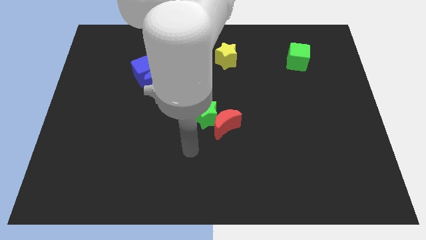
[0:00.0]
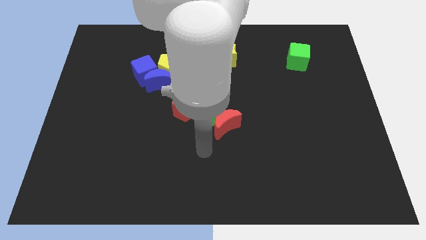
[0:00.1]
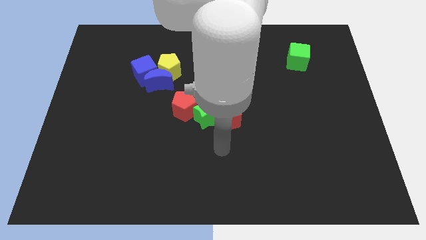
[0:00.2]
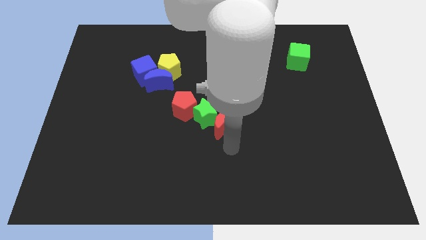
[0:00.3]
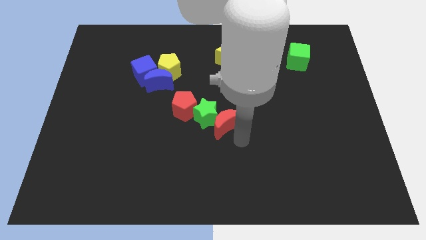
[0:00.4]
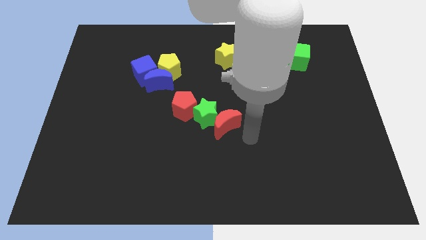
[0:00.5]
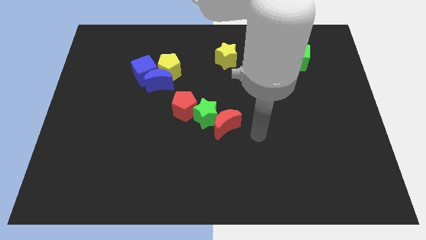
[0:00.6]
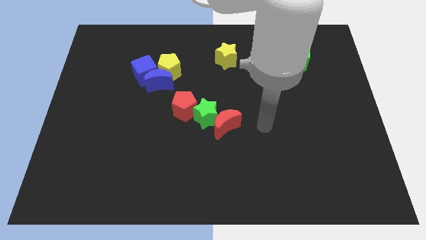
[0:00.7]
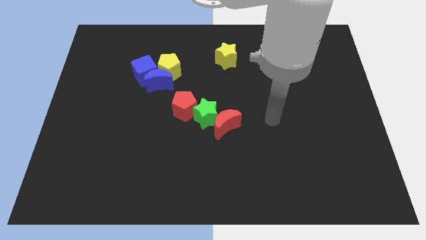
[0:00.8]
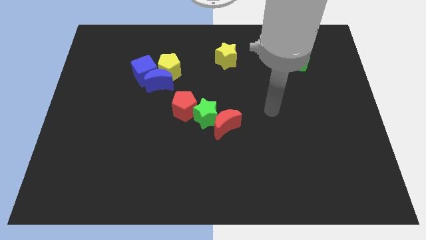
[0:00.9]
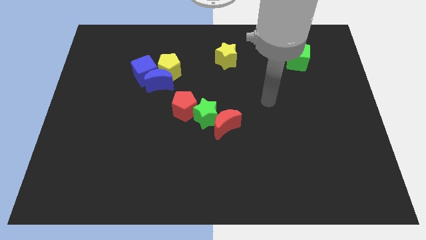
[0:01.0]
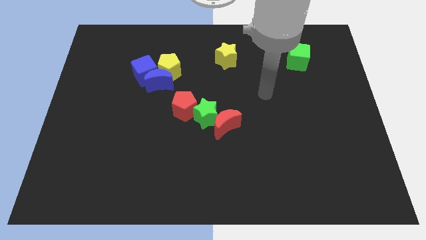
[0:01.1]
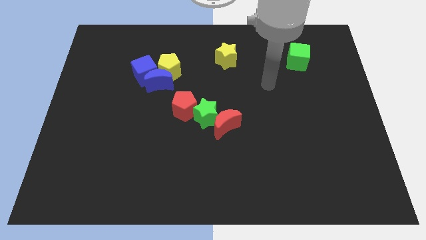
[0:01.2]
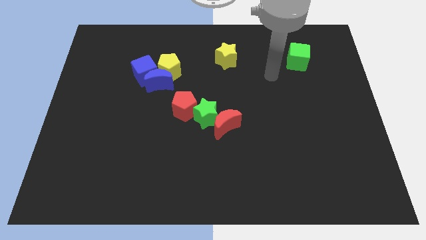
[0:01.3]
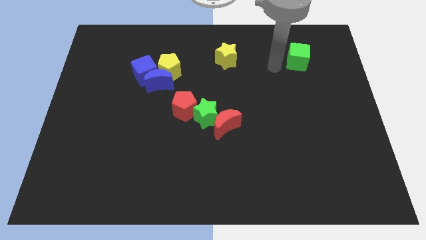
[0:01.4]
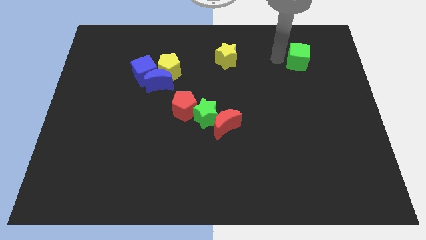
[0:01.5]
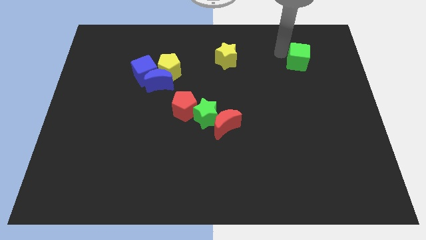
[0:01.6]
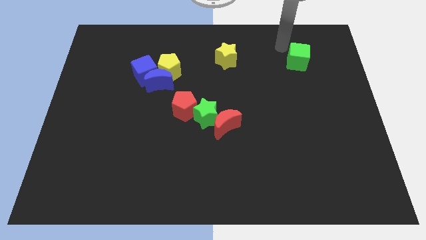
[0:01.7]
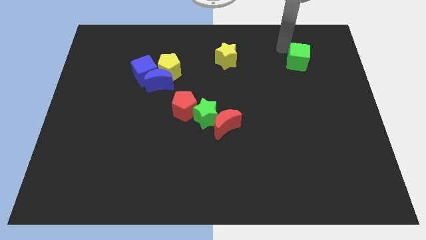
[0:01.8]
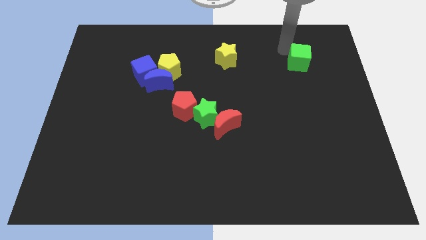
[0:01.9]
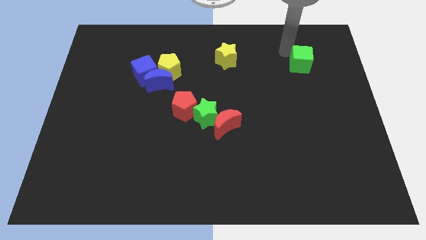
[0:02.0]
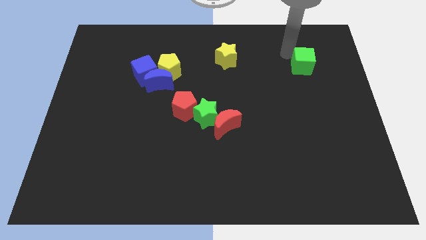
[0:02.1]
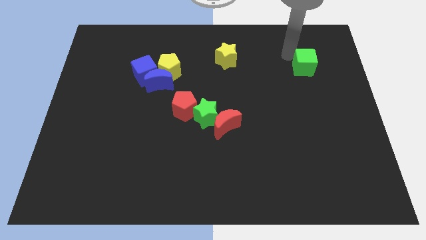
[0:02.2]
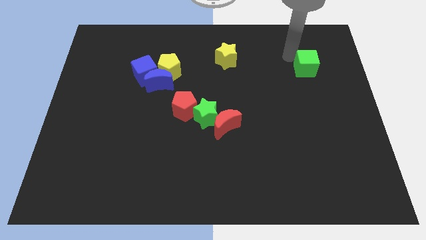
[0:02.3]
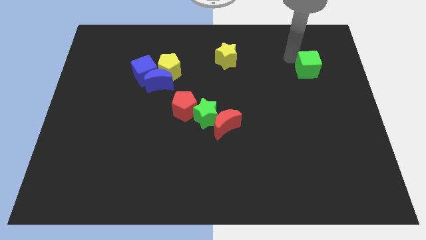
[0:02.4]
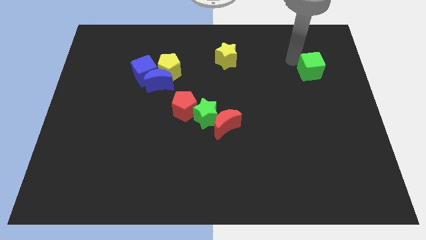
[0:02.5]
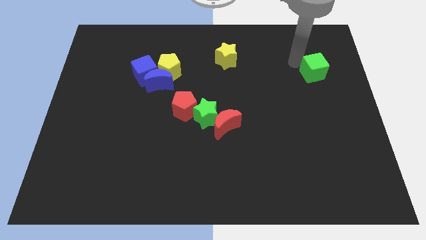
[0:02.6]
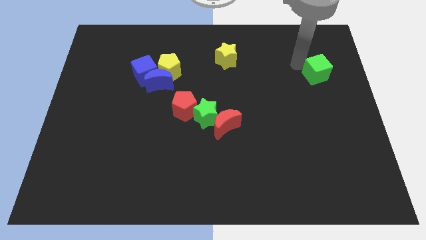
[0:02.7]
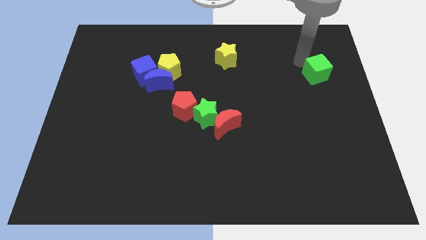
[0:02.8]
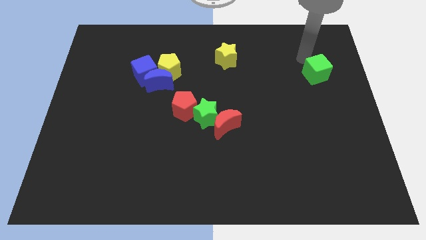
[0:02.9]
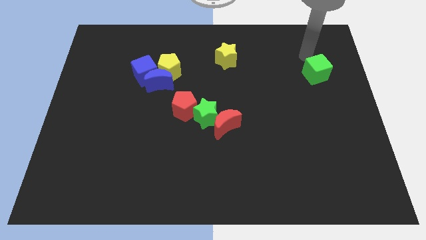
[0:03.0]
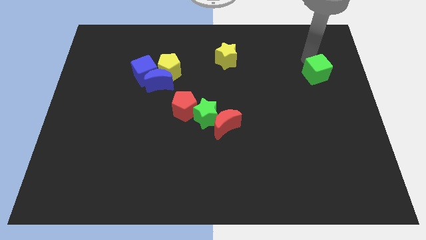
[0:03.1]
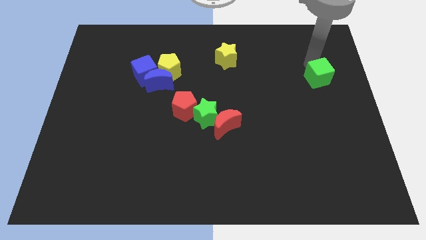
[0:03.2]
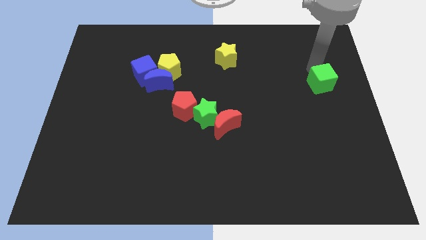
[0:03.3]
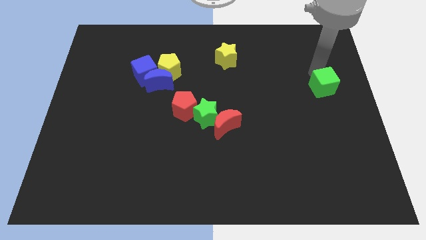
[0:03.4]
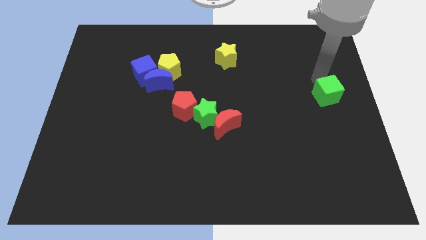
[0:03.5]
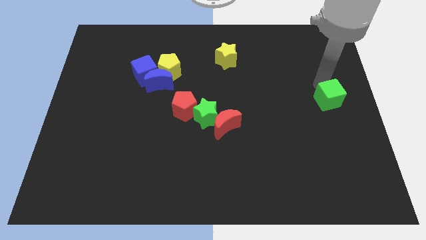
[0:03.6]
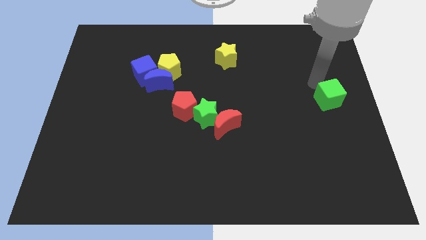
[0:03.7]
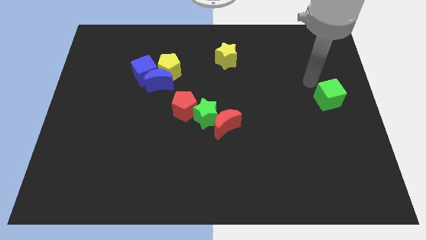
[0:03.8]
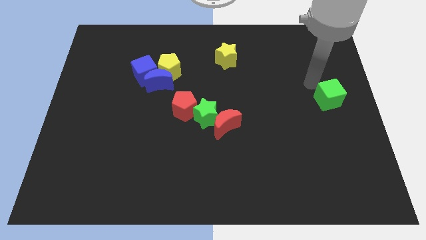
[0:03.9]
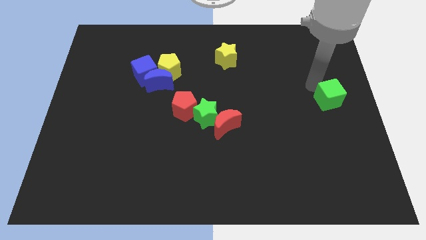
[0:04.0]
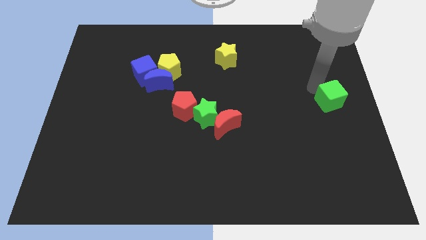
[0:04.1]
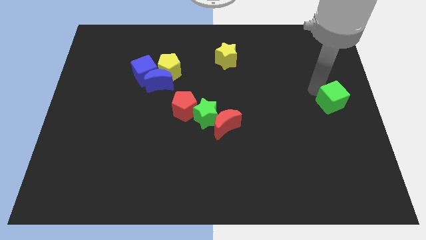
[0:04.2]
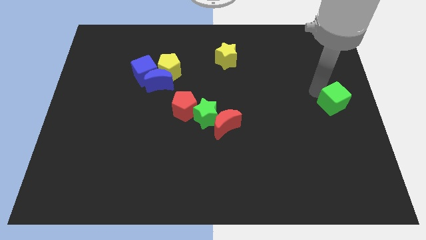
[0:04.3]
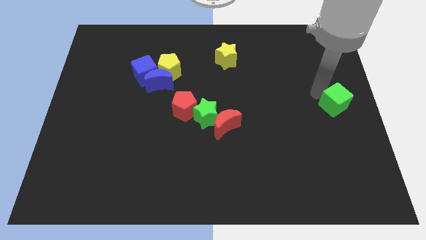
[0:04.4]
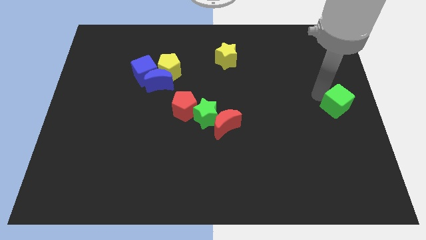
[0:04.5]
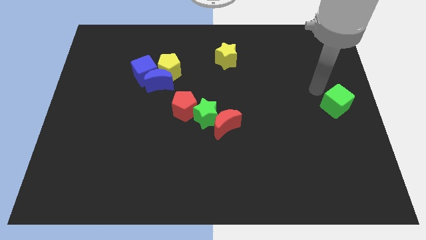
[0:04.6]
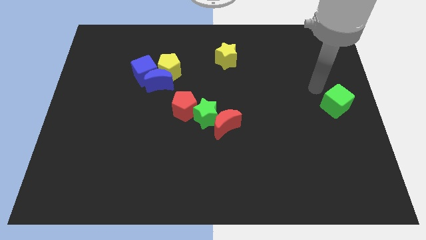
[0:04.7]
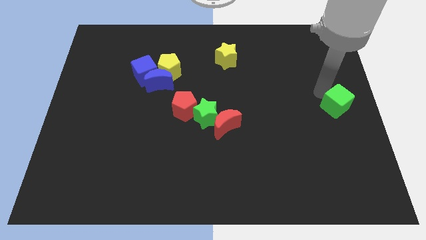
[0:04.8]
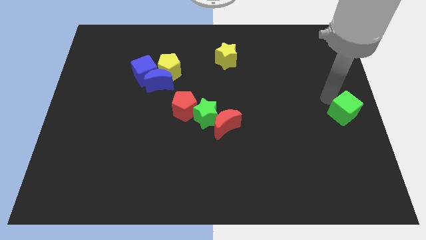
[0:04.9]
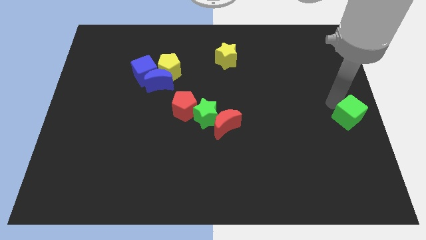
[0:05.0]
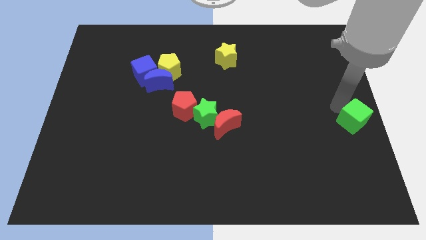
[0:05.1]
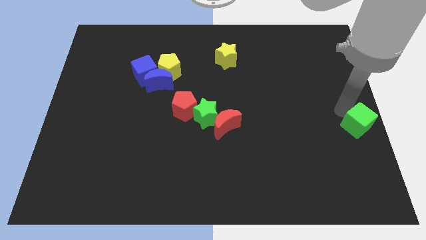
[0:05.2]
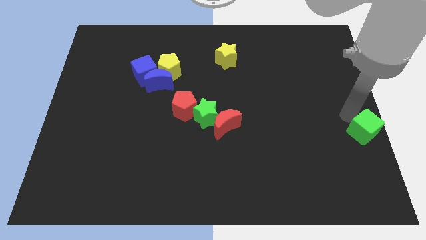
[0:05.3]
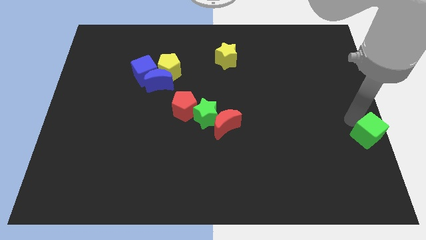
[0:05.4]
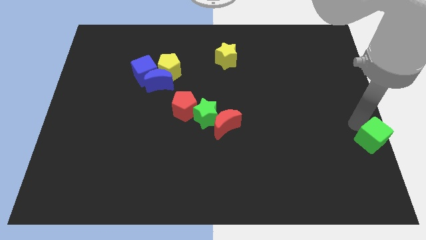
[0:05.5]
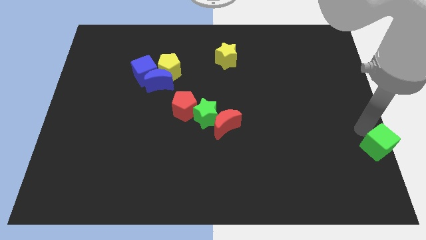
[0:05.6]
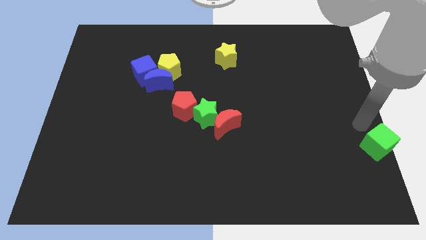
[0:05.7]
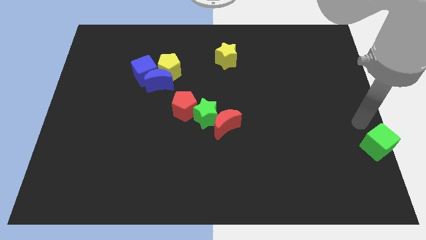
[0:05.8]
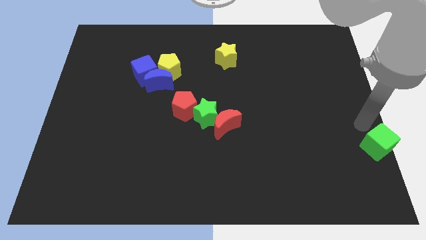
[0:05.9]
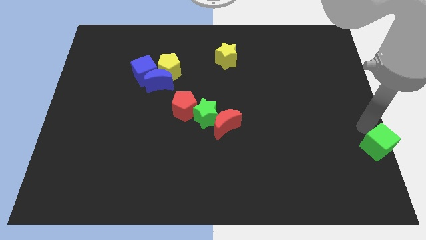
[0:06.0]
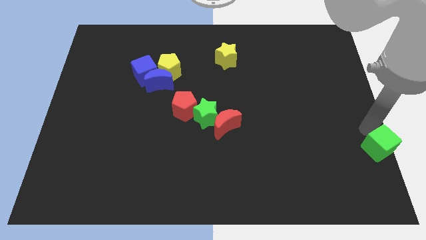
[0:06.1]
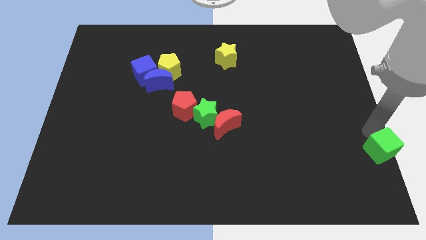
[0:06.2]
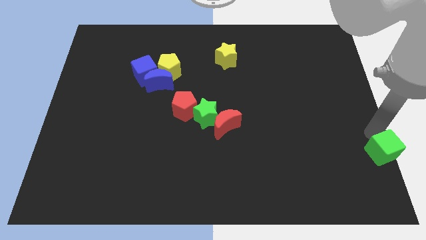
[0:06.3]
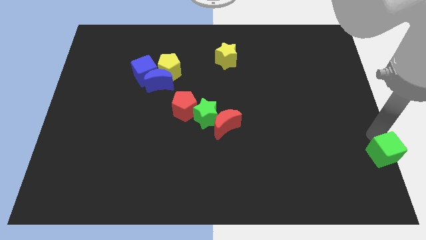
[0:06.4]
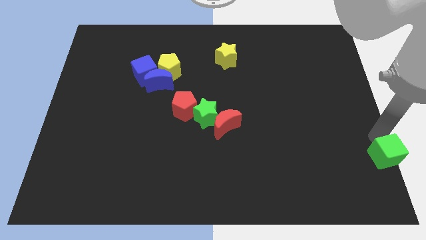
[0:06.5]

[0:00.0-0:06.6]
put the green cube to the bottom right corner
